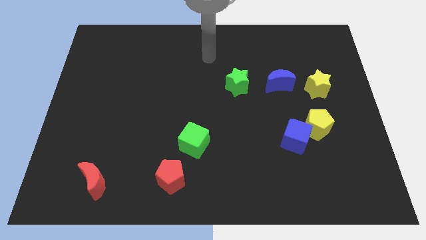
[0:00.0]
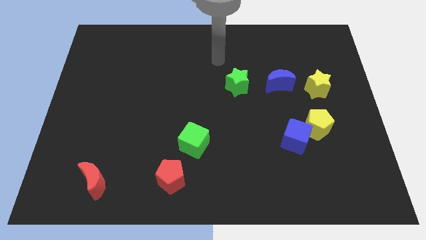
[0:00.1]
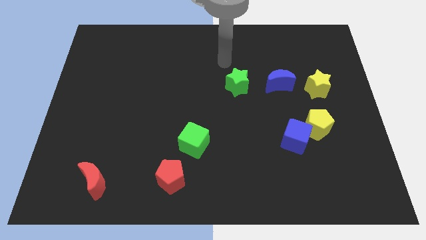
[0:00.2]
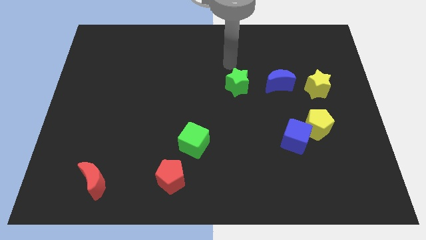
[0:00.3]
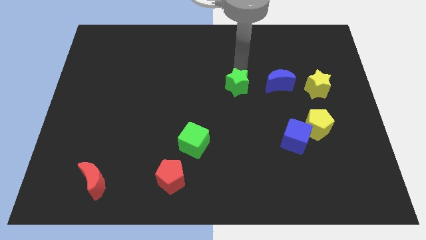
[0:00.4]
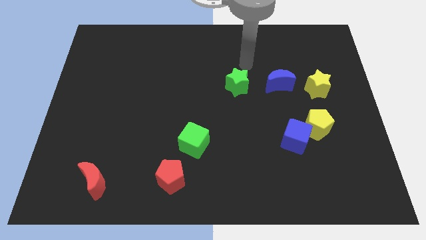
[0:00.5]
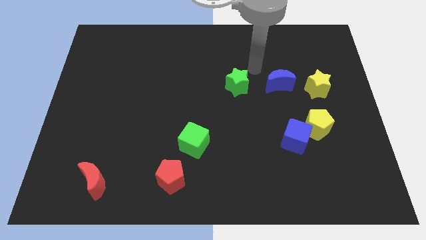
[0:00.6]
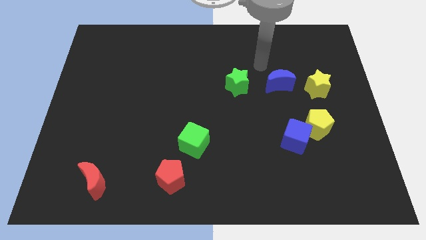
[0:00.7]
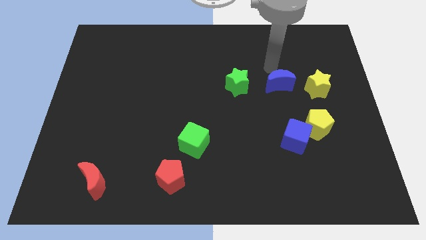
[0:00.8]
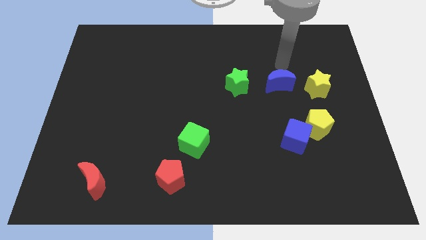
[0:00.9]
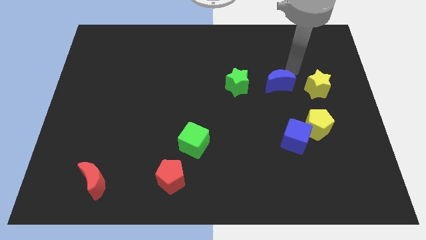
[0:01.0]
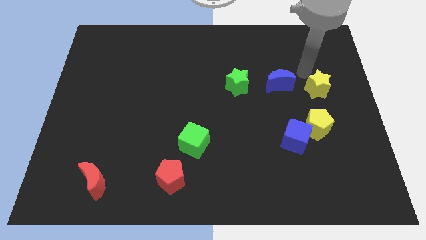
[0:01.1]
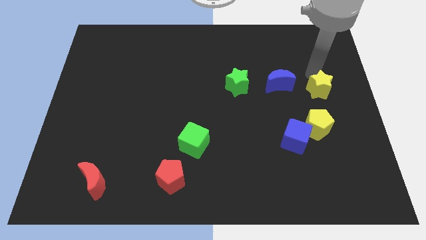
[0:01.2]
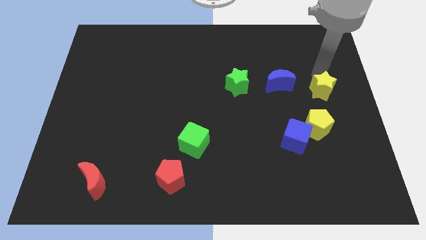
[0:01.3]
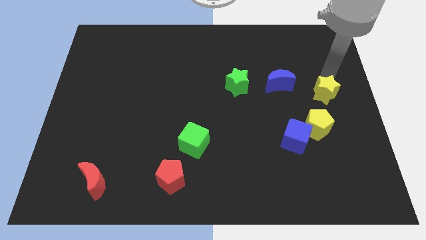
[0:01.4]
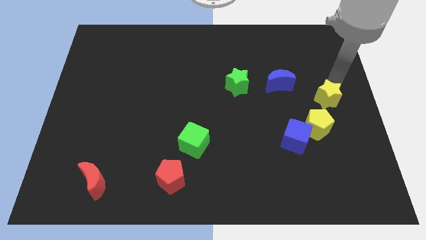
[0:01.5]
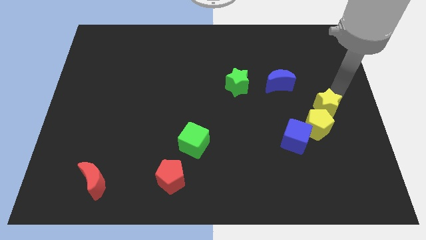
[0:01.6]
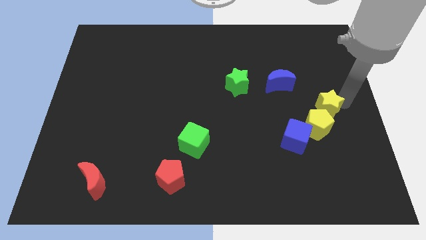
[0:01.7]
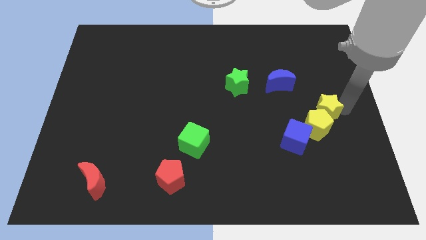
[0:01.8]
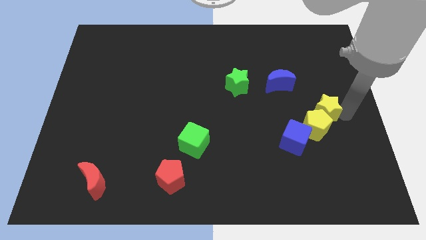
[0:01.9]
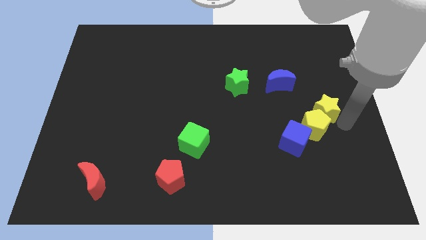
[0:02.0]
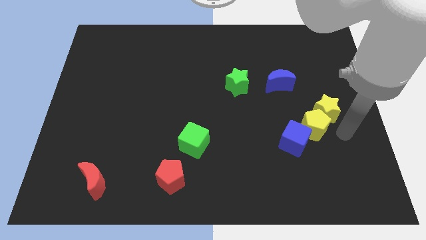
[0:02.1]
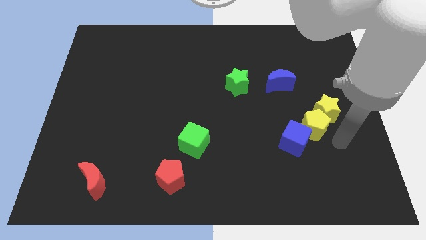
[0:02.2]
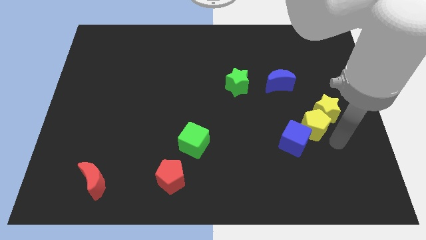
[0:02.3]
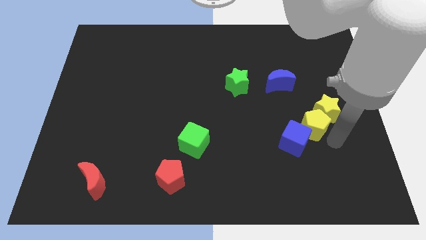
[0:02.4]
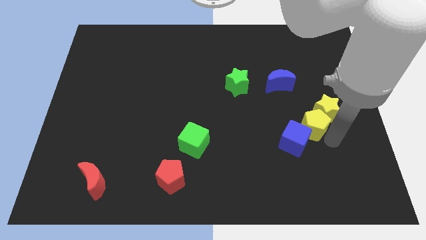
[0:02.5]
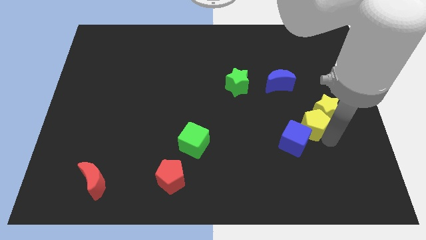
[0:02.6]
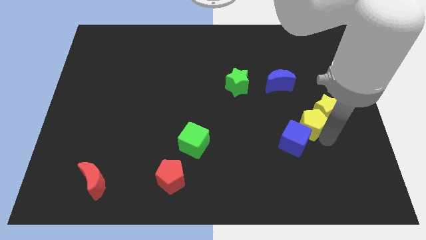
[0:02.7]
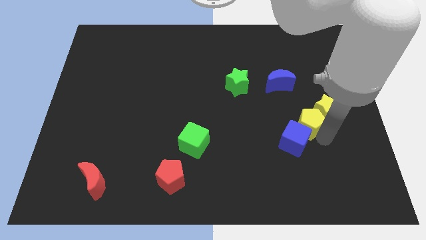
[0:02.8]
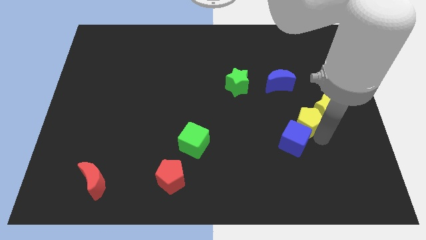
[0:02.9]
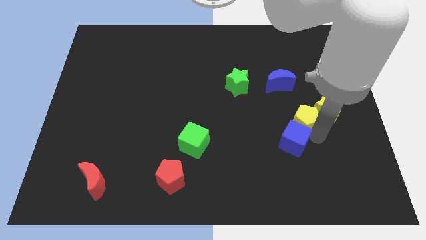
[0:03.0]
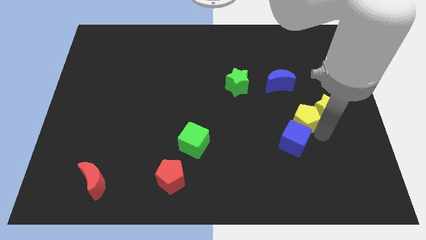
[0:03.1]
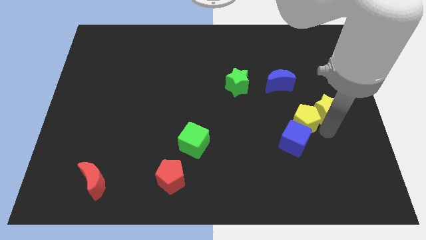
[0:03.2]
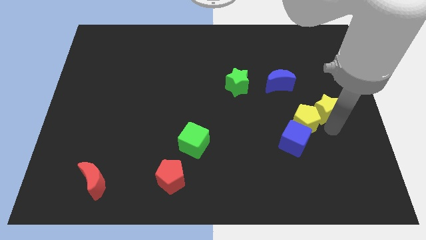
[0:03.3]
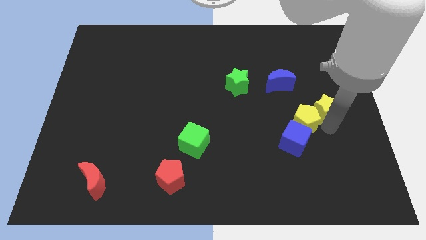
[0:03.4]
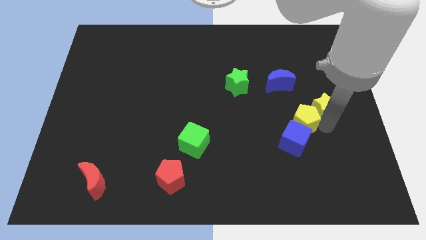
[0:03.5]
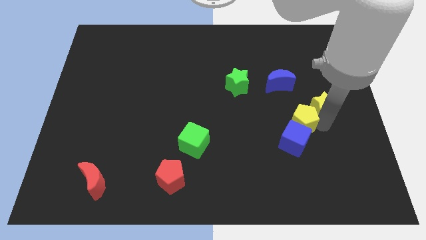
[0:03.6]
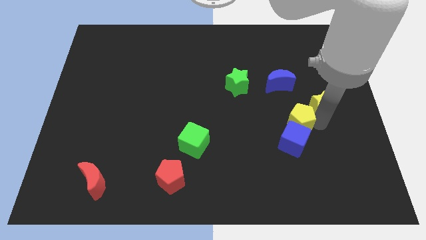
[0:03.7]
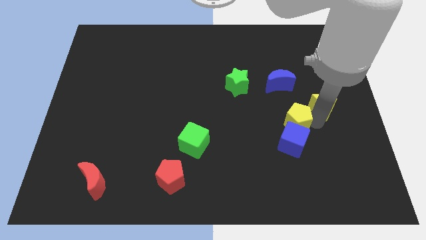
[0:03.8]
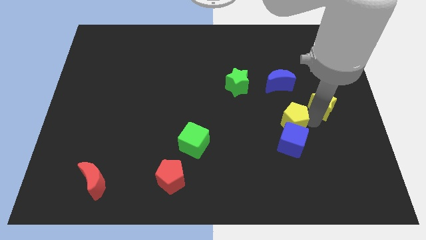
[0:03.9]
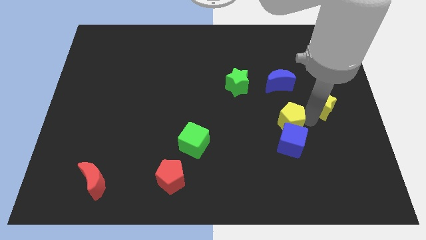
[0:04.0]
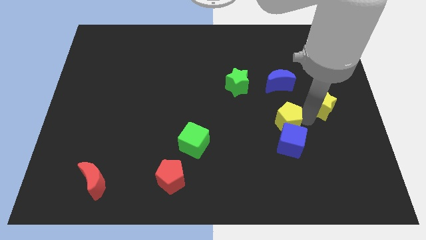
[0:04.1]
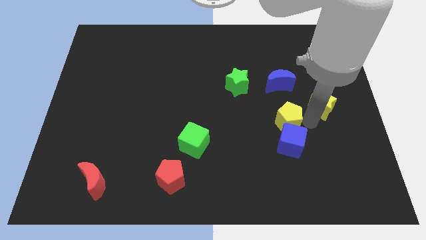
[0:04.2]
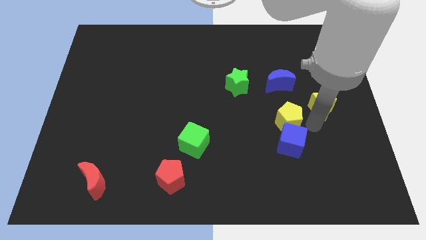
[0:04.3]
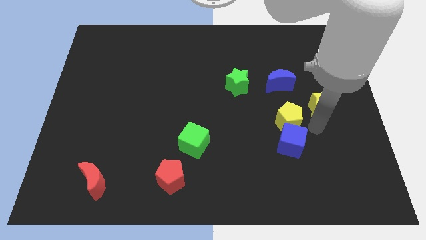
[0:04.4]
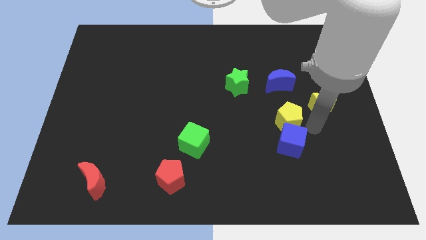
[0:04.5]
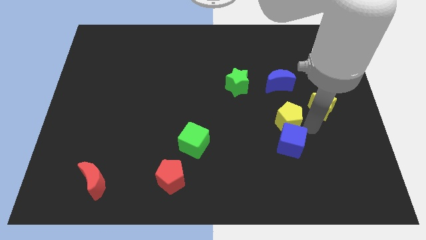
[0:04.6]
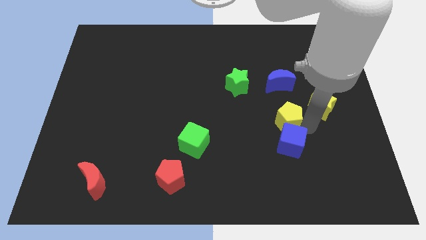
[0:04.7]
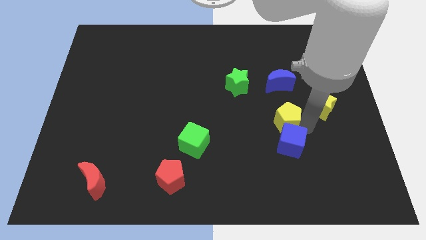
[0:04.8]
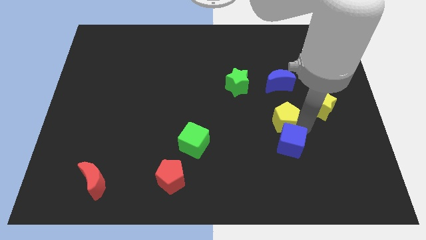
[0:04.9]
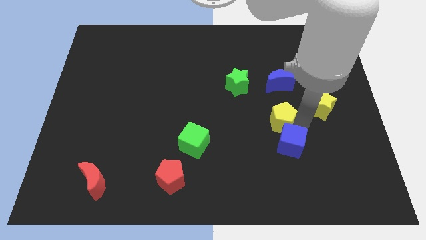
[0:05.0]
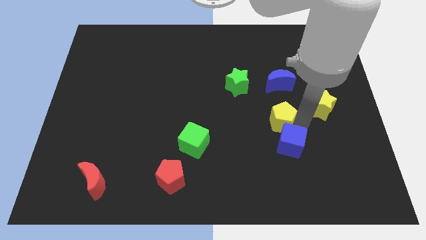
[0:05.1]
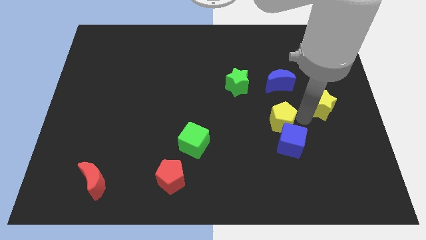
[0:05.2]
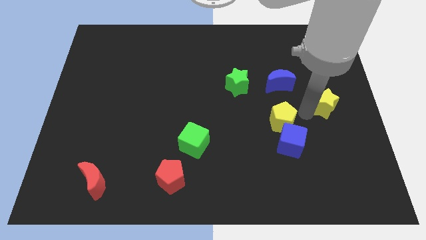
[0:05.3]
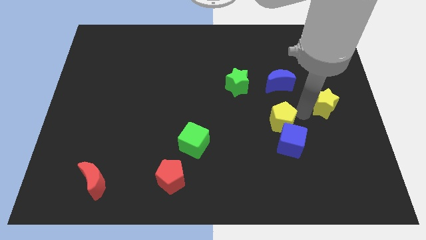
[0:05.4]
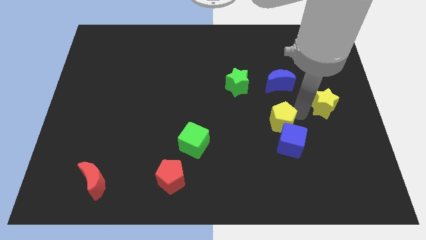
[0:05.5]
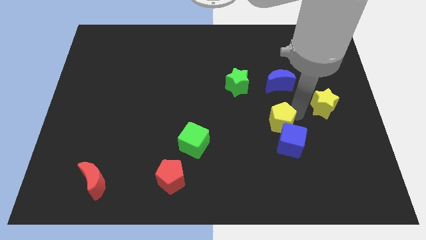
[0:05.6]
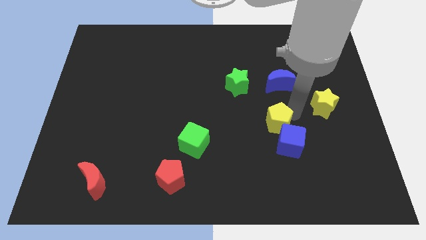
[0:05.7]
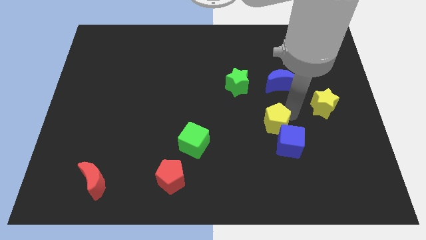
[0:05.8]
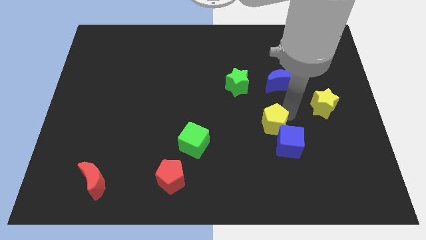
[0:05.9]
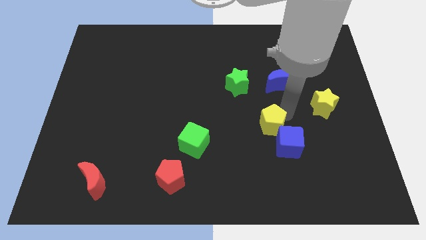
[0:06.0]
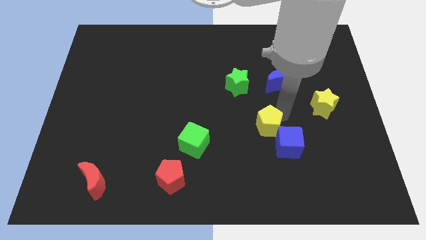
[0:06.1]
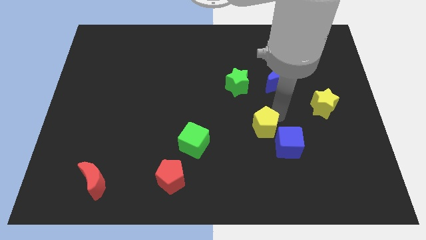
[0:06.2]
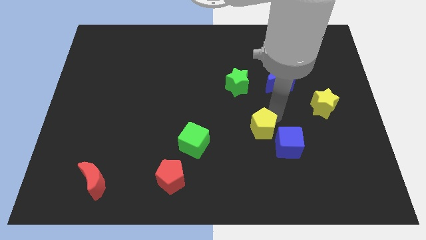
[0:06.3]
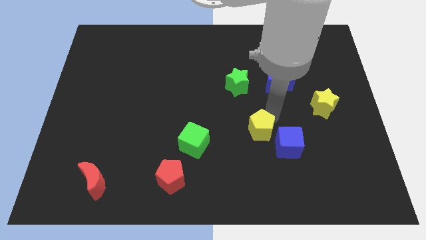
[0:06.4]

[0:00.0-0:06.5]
push the yellow pentagon right of the green cube

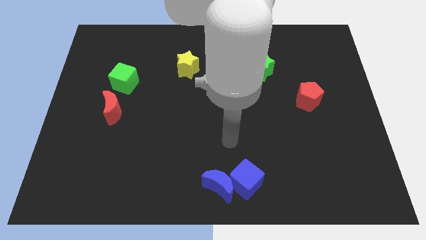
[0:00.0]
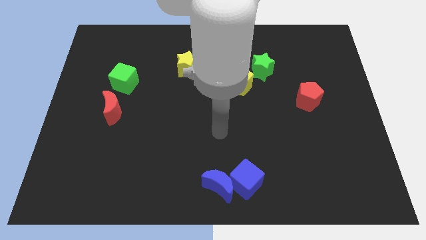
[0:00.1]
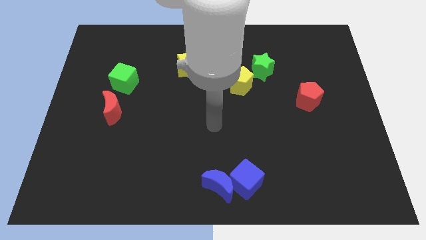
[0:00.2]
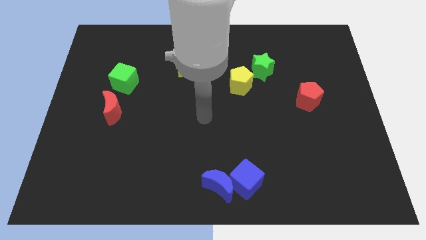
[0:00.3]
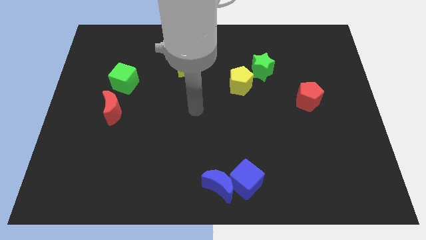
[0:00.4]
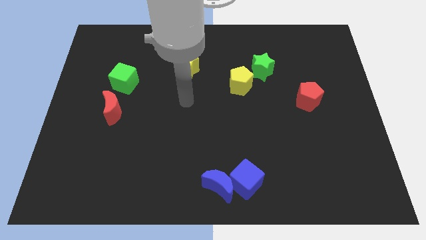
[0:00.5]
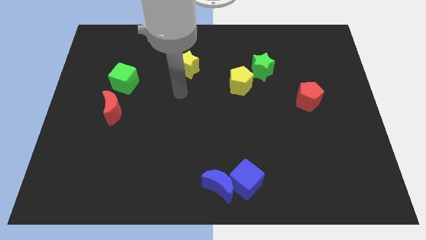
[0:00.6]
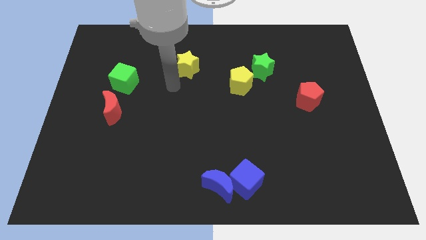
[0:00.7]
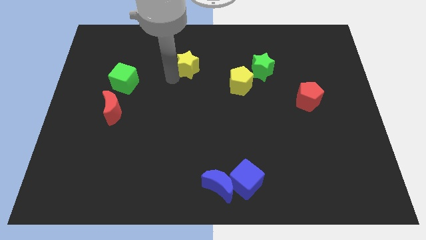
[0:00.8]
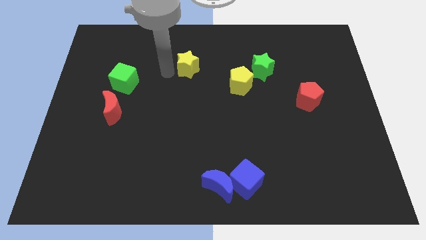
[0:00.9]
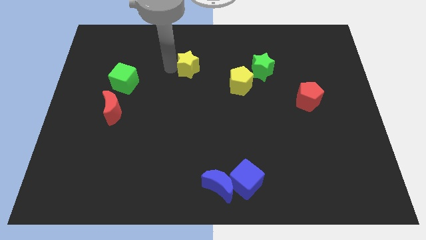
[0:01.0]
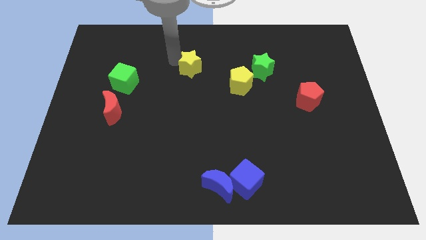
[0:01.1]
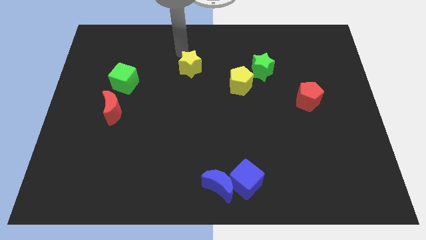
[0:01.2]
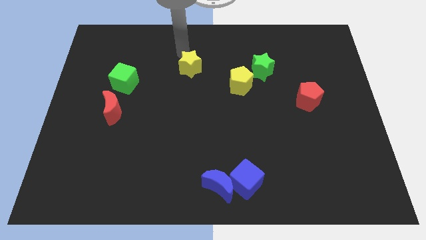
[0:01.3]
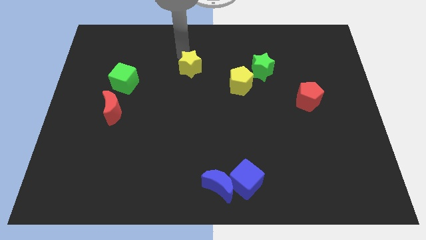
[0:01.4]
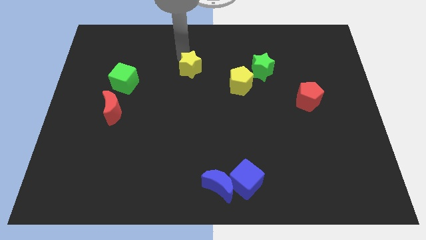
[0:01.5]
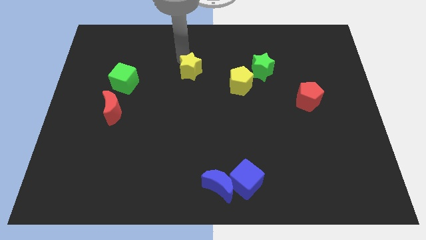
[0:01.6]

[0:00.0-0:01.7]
push the yellow star left of the yellow pentagon
